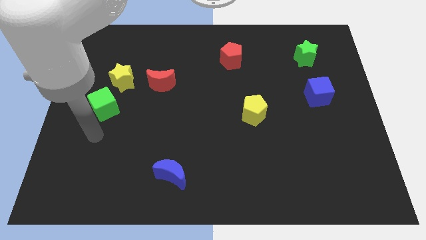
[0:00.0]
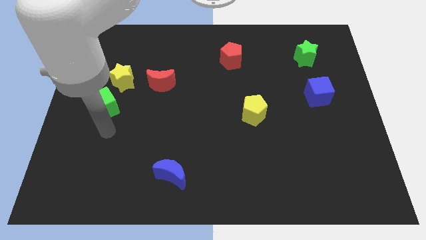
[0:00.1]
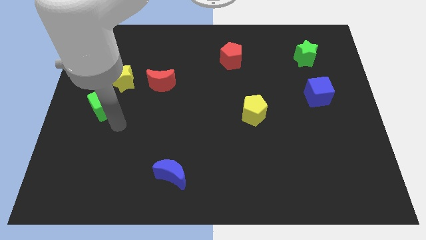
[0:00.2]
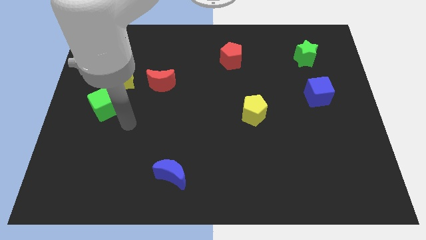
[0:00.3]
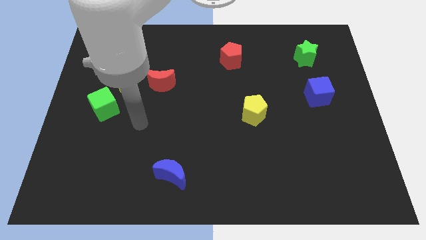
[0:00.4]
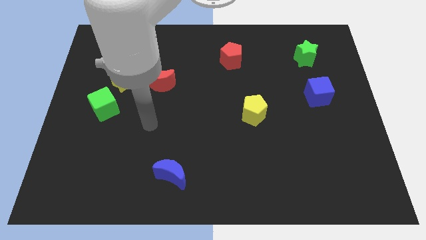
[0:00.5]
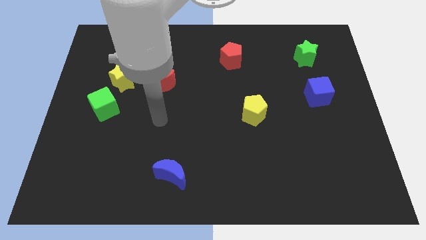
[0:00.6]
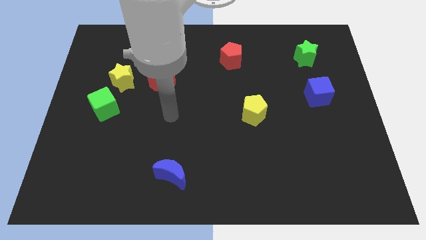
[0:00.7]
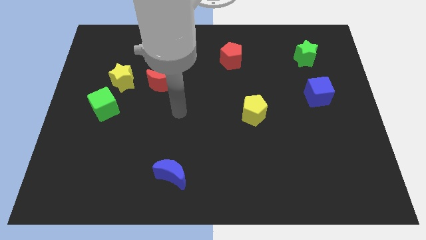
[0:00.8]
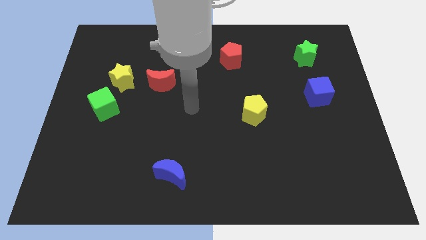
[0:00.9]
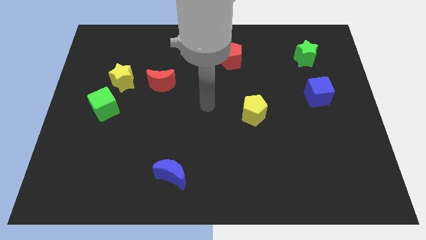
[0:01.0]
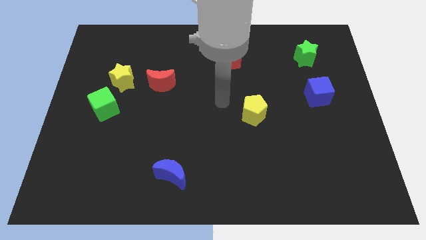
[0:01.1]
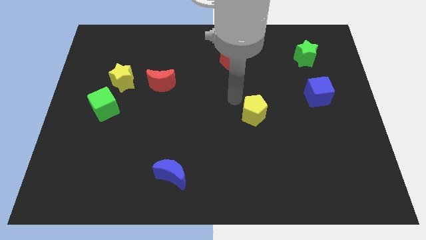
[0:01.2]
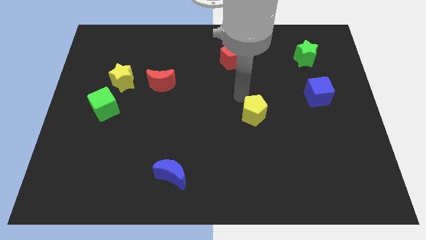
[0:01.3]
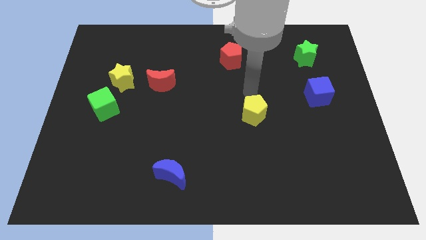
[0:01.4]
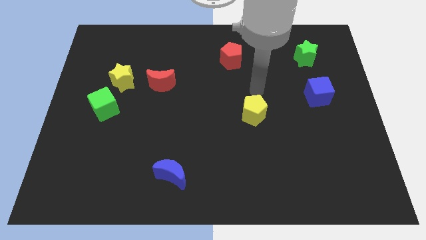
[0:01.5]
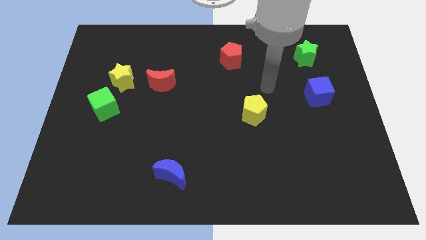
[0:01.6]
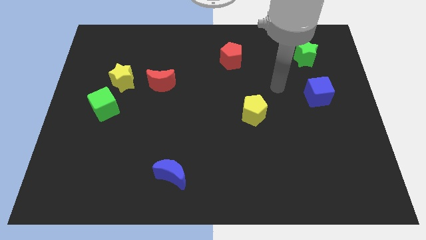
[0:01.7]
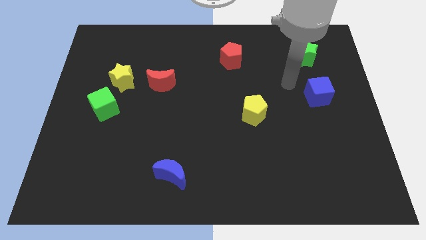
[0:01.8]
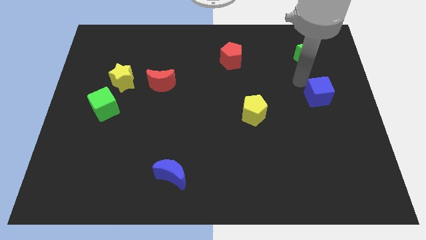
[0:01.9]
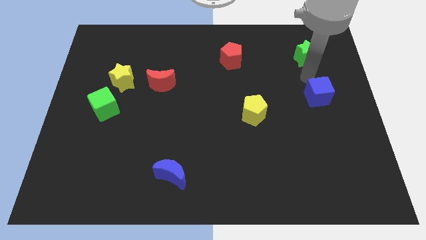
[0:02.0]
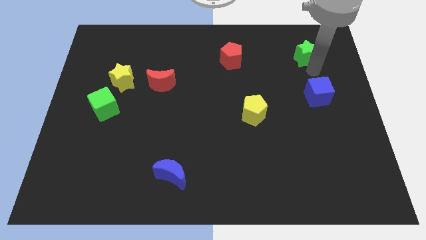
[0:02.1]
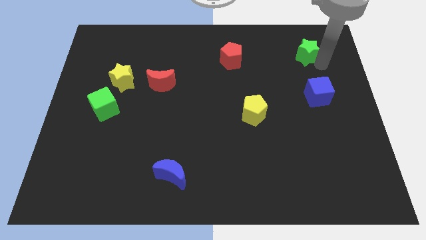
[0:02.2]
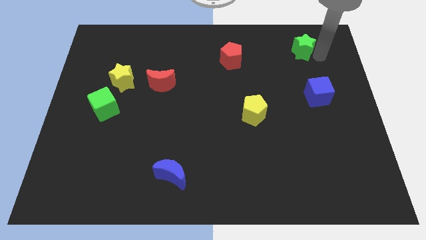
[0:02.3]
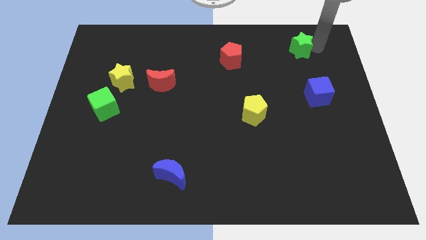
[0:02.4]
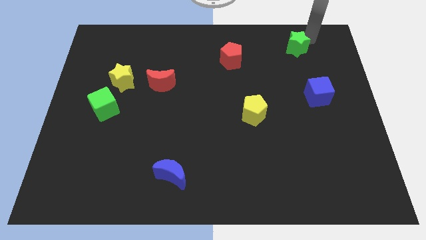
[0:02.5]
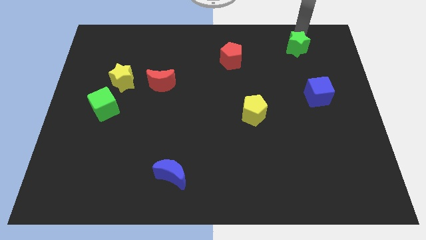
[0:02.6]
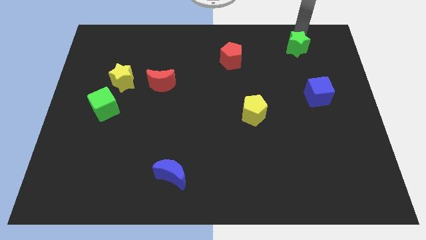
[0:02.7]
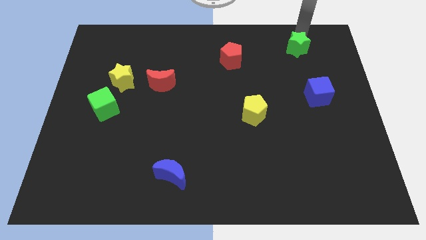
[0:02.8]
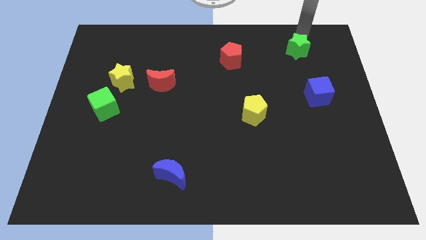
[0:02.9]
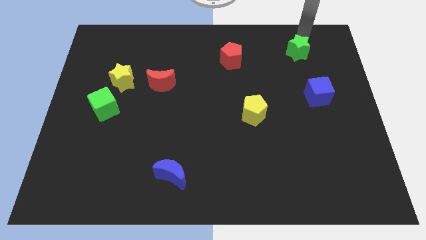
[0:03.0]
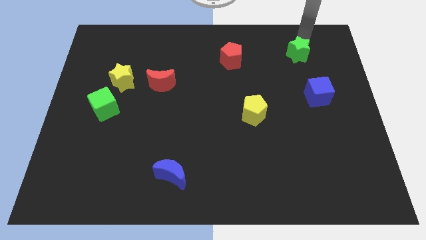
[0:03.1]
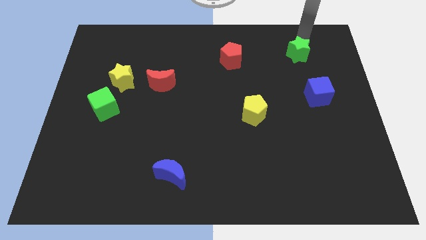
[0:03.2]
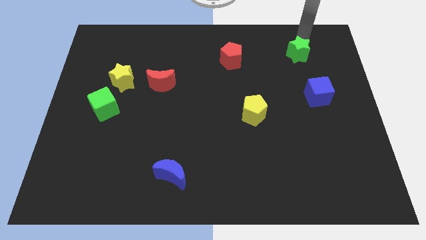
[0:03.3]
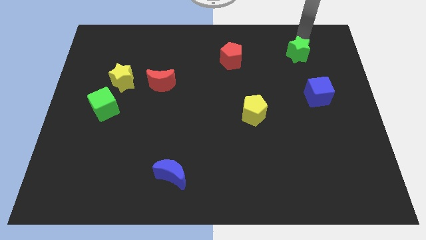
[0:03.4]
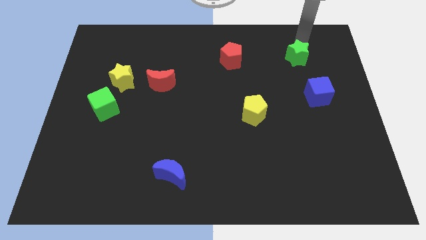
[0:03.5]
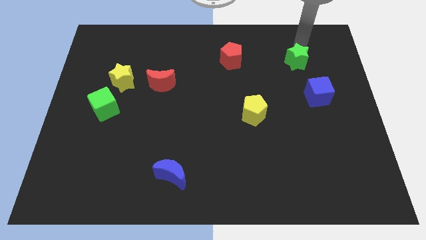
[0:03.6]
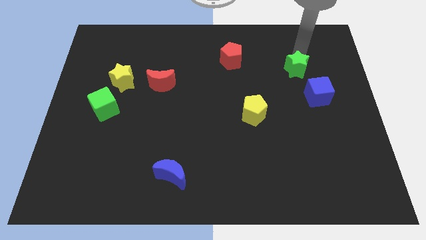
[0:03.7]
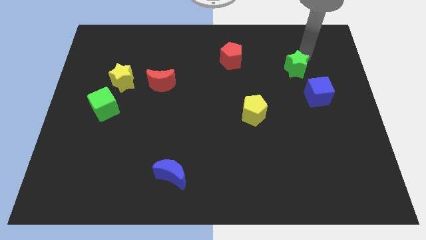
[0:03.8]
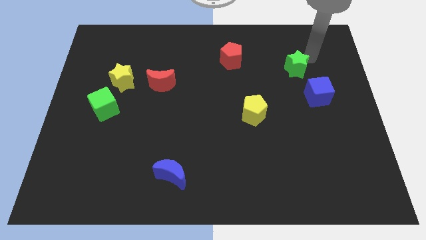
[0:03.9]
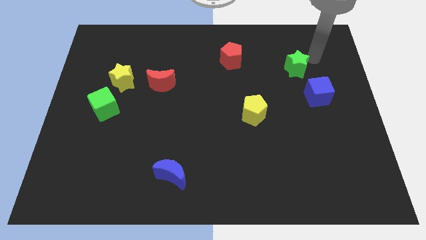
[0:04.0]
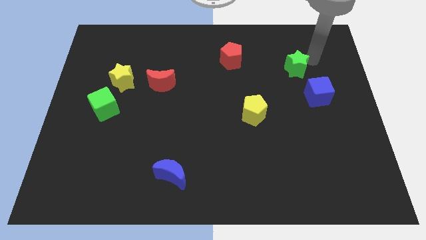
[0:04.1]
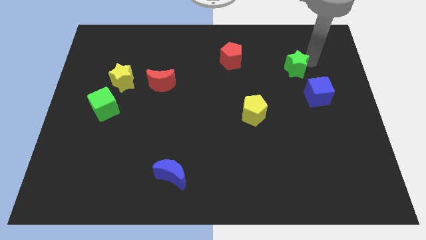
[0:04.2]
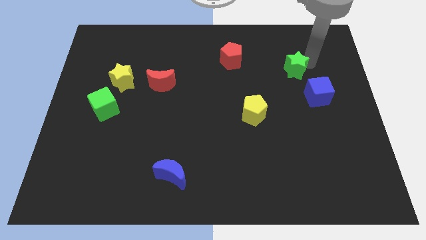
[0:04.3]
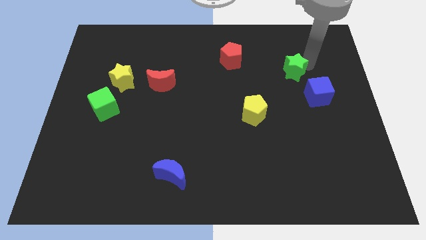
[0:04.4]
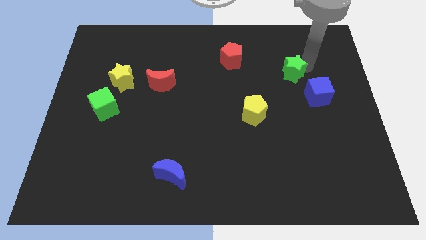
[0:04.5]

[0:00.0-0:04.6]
push the green star down and then to the left a little bit

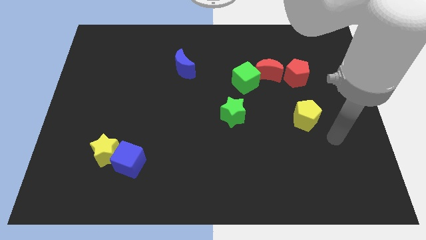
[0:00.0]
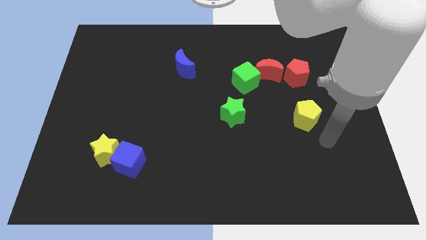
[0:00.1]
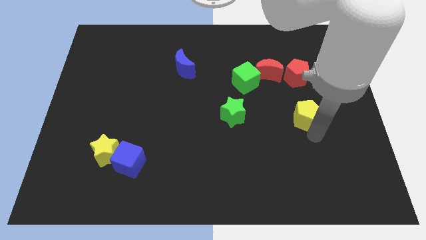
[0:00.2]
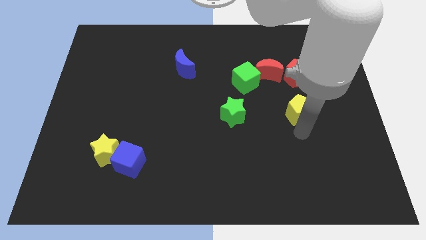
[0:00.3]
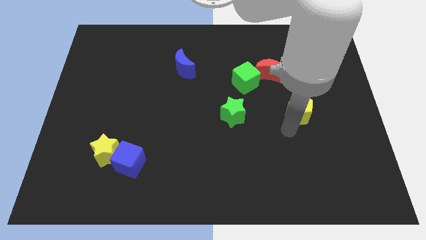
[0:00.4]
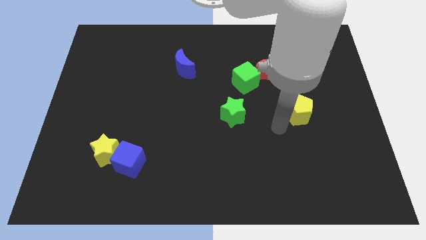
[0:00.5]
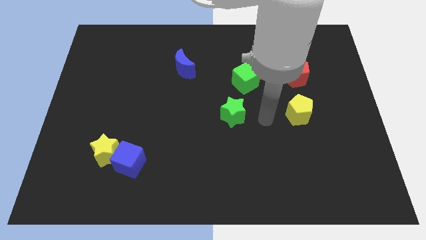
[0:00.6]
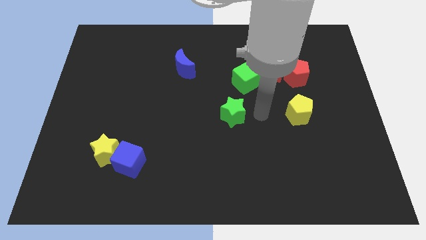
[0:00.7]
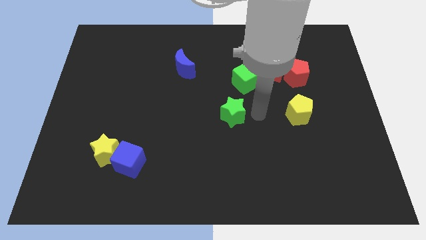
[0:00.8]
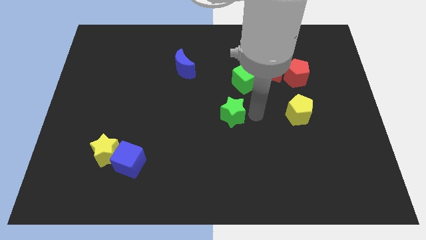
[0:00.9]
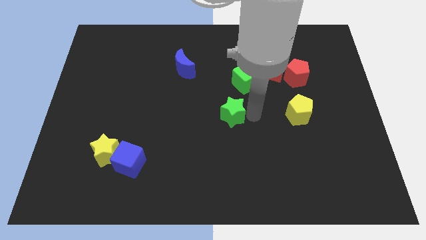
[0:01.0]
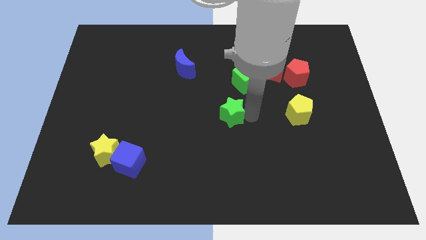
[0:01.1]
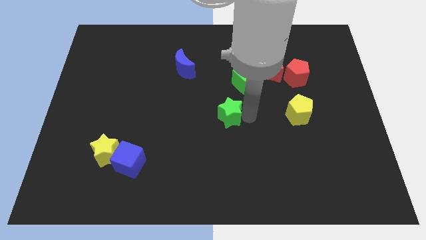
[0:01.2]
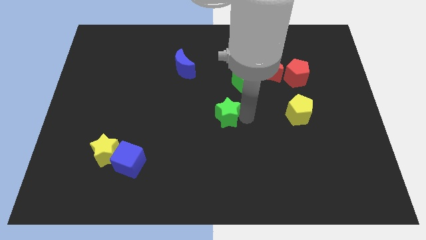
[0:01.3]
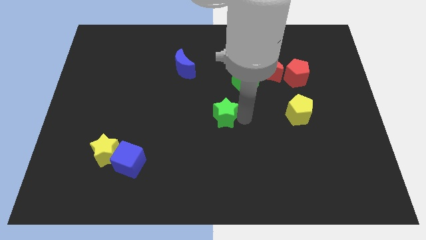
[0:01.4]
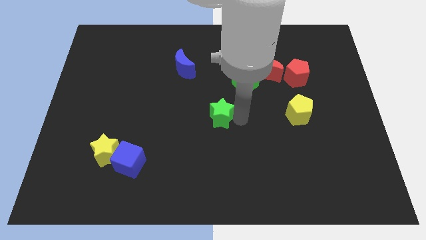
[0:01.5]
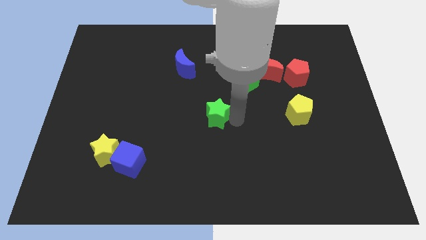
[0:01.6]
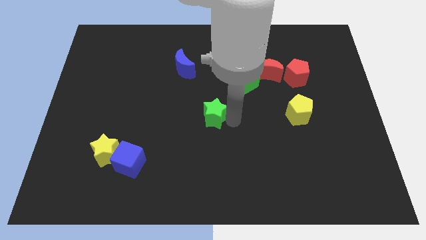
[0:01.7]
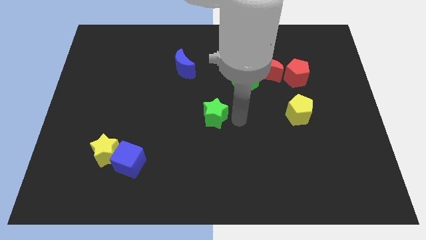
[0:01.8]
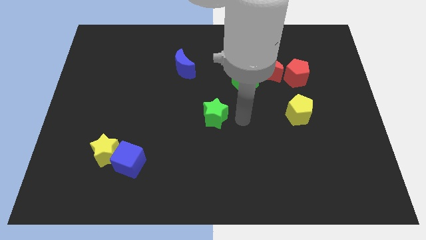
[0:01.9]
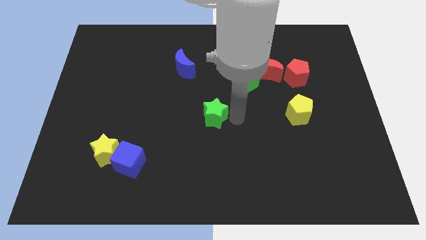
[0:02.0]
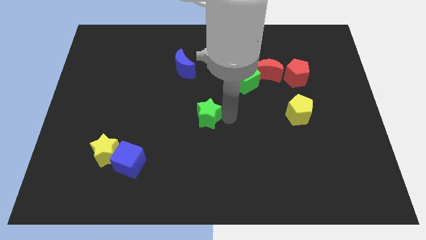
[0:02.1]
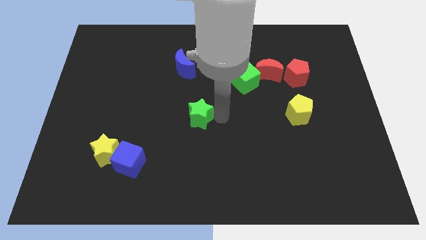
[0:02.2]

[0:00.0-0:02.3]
slightly move the green star to the left

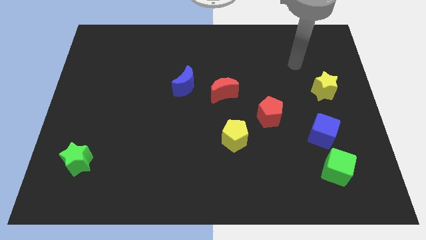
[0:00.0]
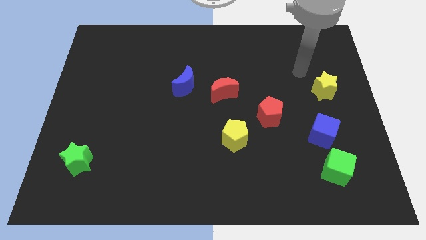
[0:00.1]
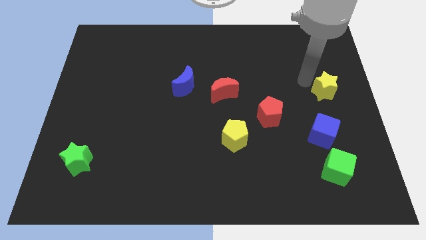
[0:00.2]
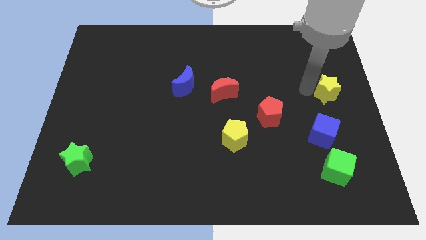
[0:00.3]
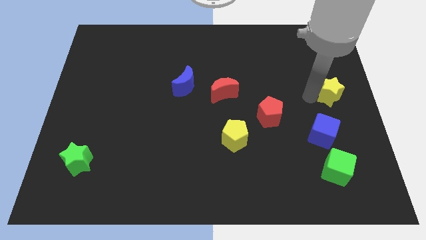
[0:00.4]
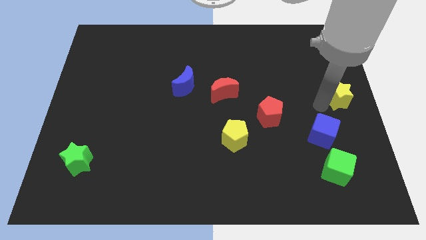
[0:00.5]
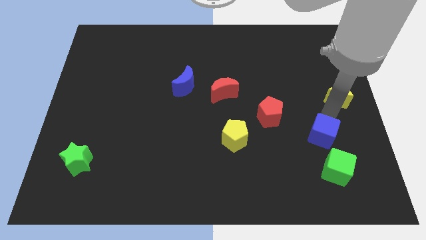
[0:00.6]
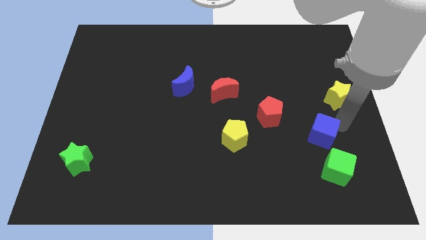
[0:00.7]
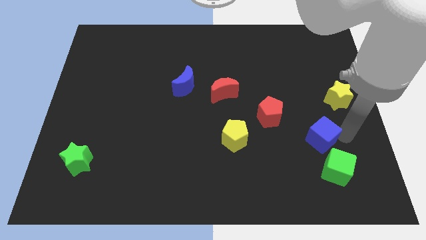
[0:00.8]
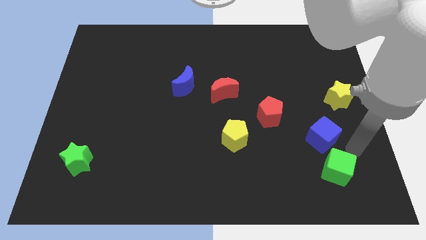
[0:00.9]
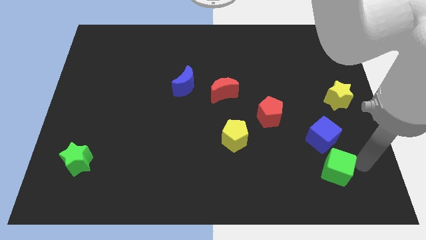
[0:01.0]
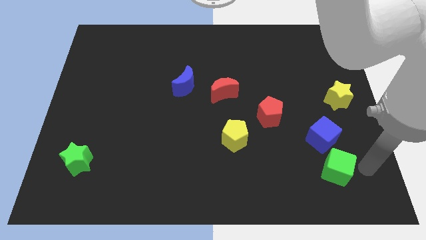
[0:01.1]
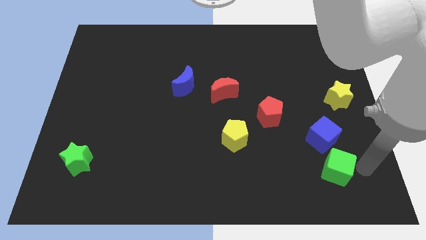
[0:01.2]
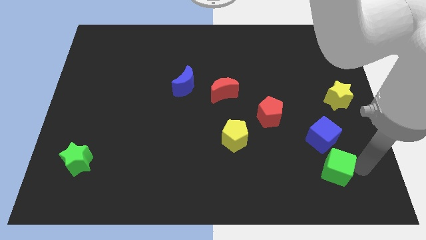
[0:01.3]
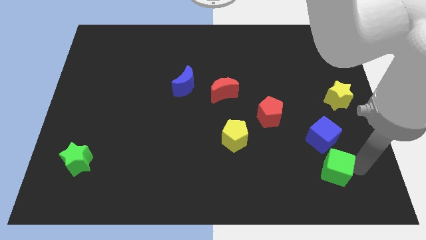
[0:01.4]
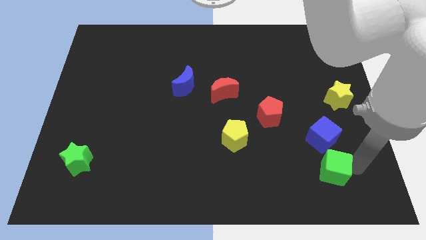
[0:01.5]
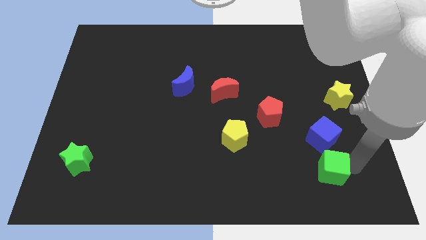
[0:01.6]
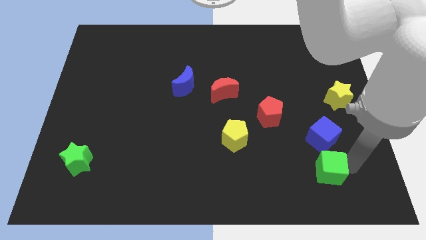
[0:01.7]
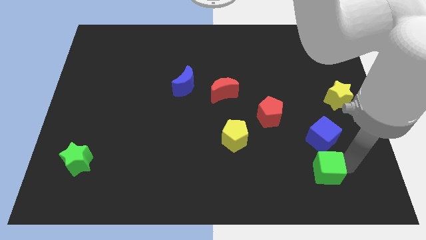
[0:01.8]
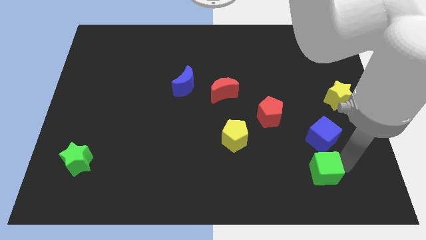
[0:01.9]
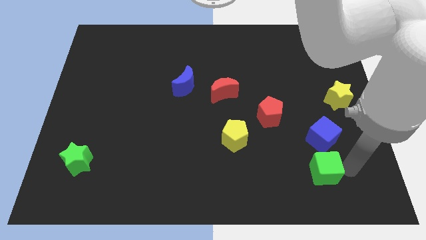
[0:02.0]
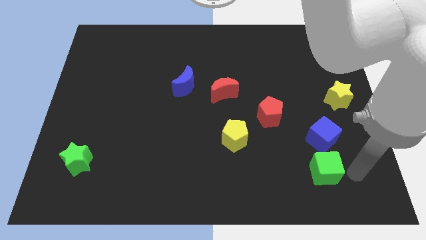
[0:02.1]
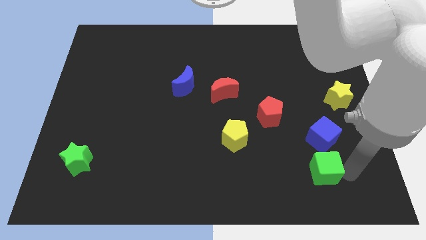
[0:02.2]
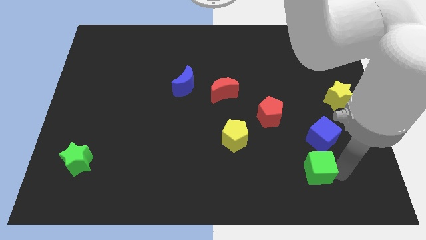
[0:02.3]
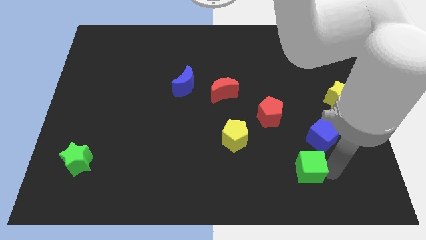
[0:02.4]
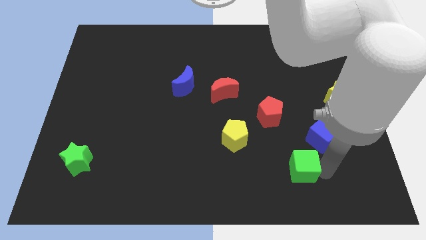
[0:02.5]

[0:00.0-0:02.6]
slightly move the green cube left
